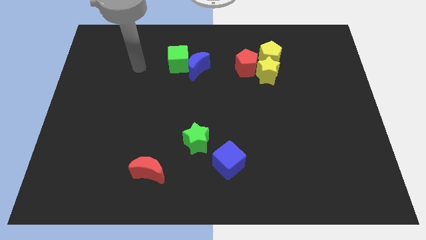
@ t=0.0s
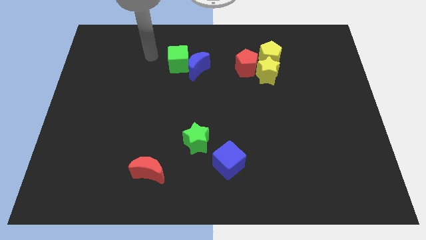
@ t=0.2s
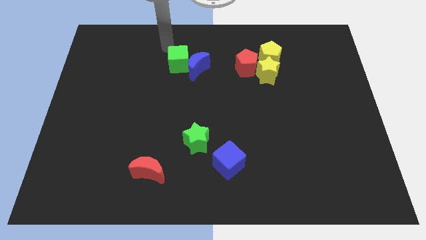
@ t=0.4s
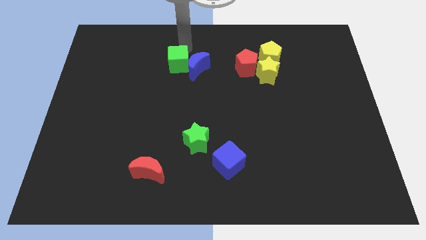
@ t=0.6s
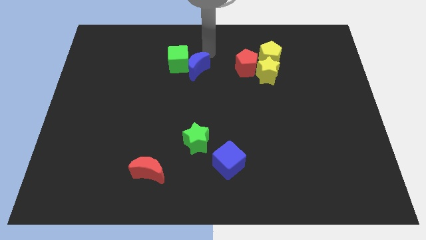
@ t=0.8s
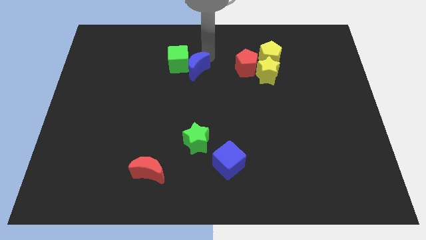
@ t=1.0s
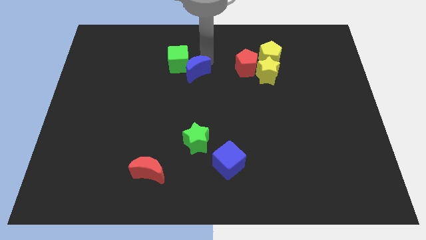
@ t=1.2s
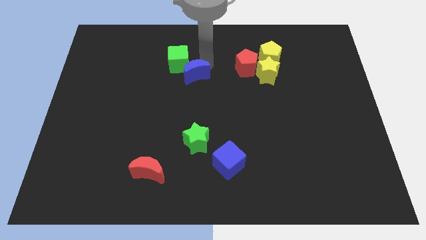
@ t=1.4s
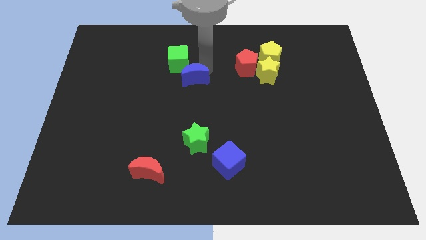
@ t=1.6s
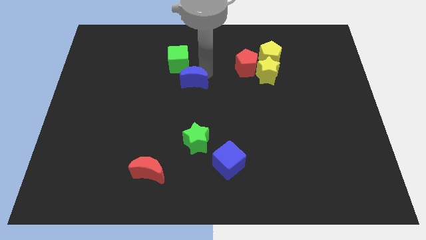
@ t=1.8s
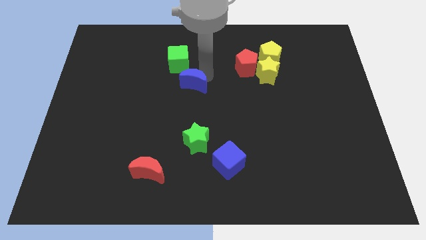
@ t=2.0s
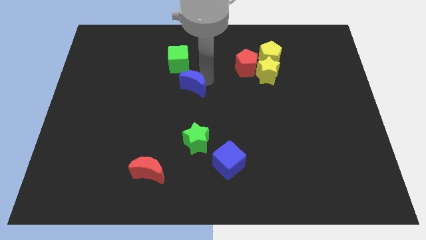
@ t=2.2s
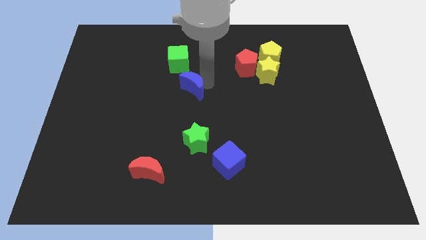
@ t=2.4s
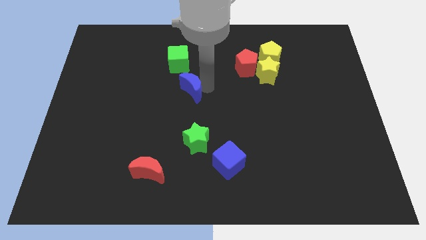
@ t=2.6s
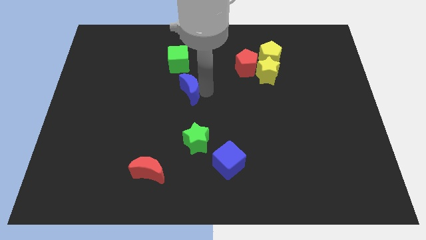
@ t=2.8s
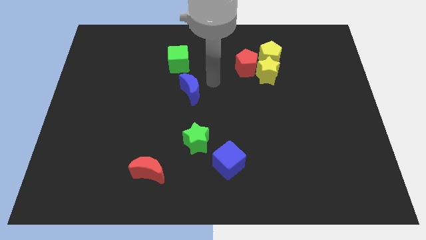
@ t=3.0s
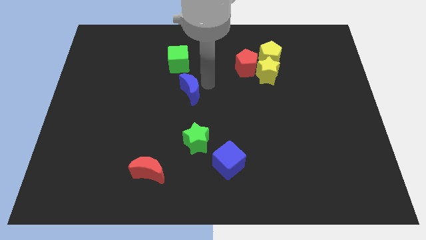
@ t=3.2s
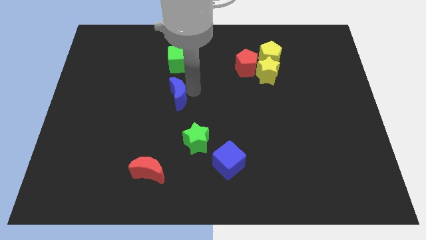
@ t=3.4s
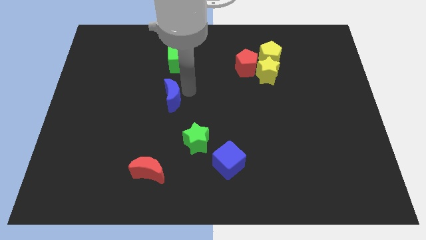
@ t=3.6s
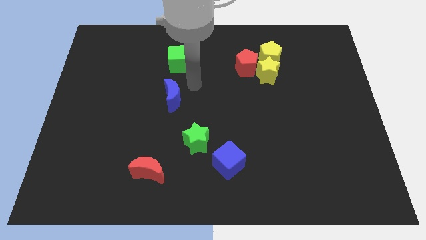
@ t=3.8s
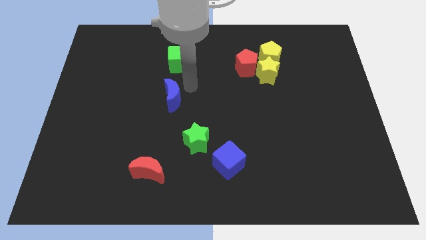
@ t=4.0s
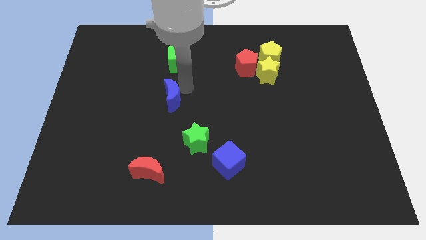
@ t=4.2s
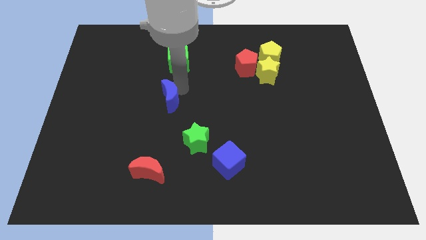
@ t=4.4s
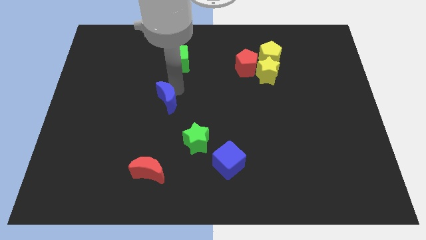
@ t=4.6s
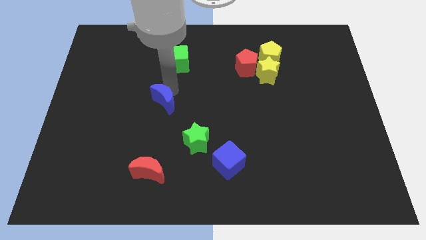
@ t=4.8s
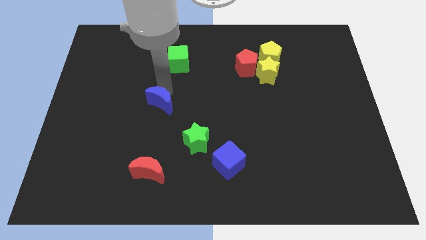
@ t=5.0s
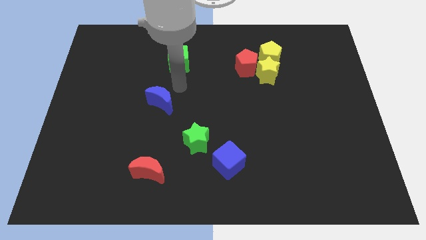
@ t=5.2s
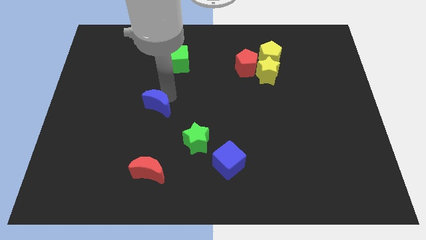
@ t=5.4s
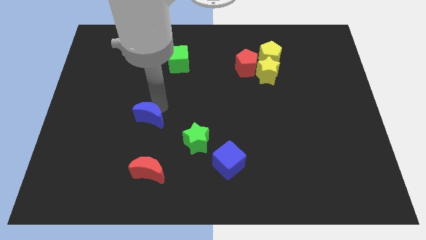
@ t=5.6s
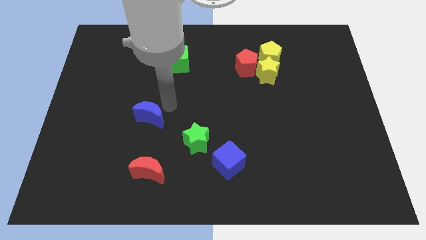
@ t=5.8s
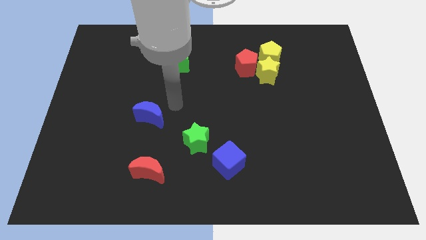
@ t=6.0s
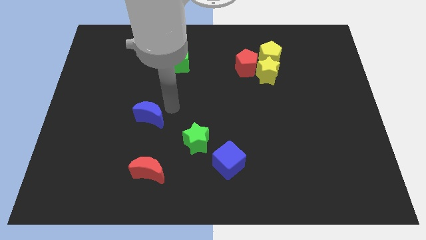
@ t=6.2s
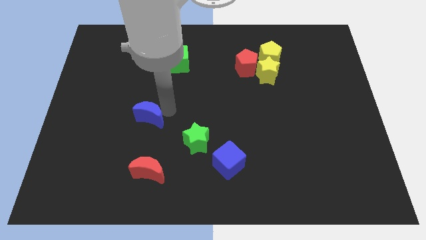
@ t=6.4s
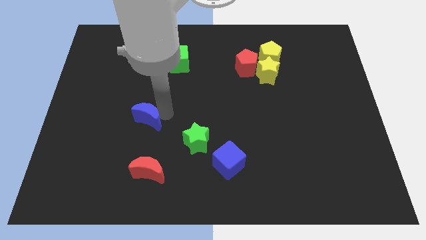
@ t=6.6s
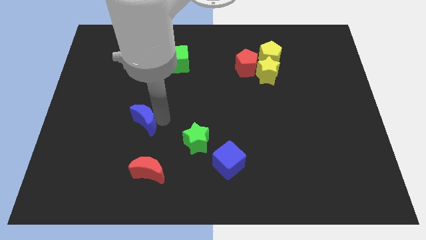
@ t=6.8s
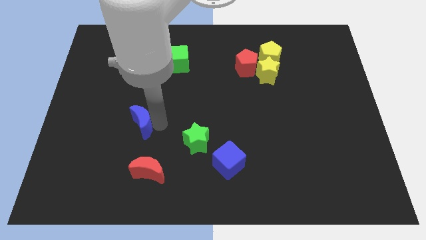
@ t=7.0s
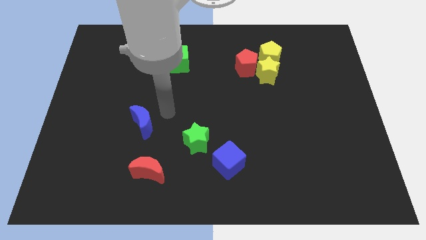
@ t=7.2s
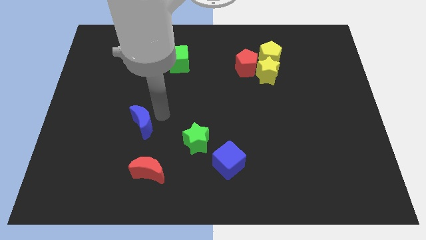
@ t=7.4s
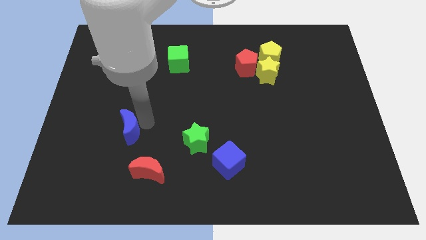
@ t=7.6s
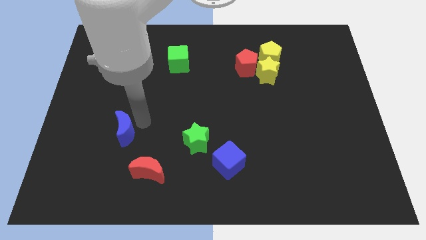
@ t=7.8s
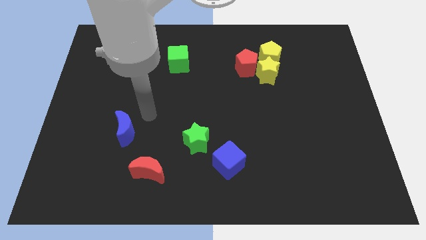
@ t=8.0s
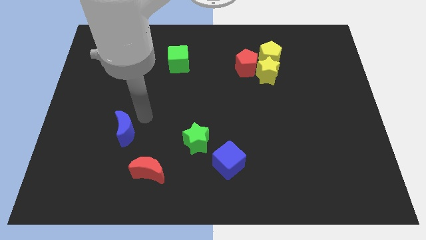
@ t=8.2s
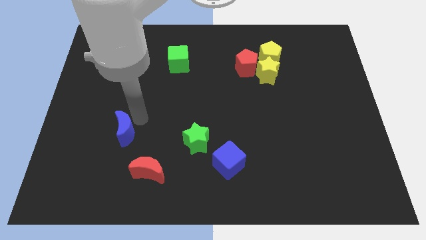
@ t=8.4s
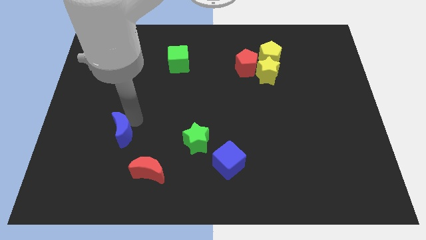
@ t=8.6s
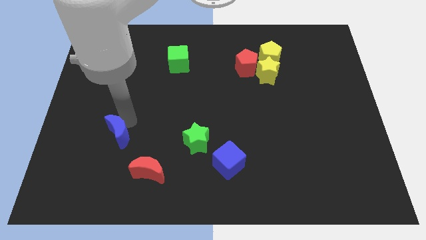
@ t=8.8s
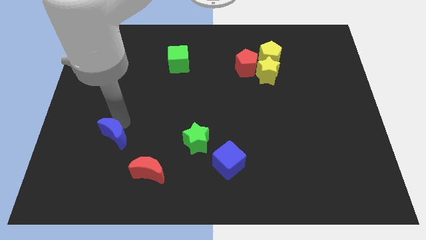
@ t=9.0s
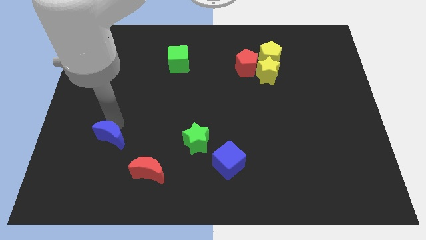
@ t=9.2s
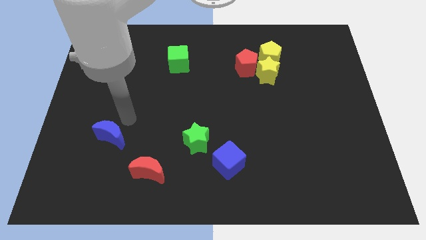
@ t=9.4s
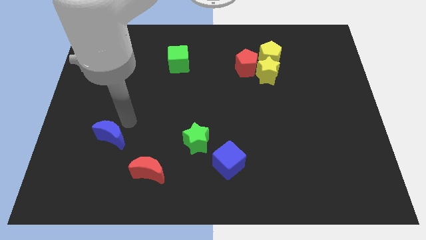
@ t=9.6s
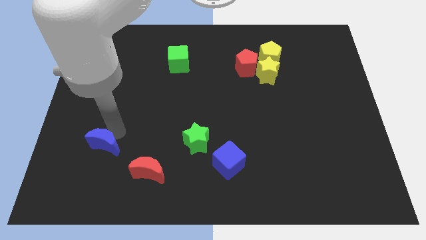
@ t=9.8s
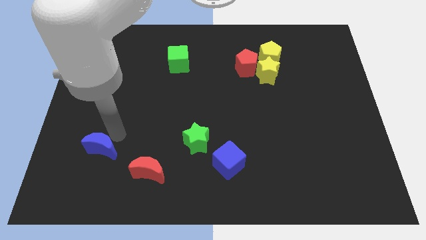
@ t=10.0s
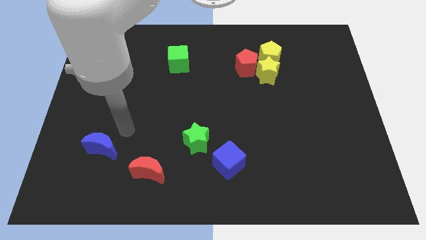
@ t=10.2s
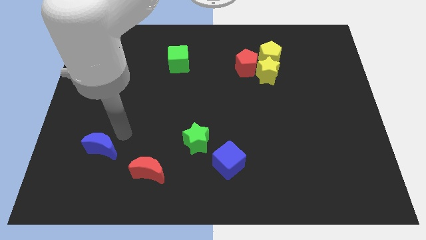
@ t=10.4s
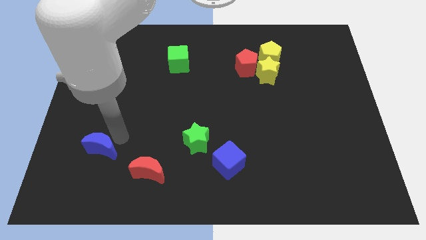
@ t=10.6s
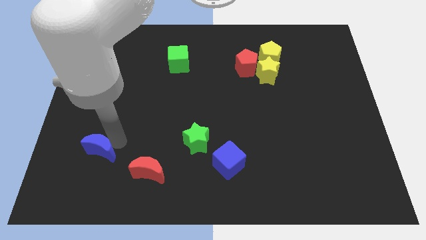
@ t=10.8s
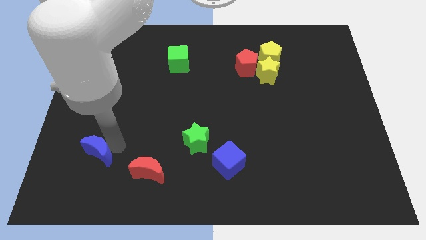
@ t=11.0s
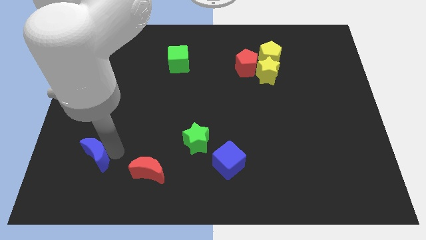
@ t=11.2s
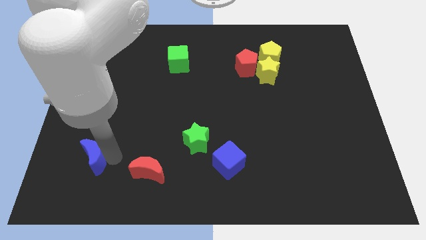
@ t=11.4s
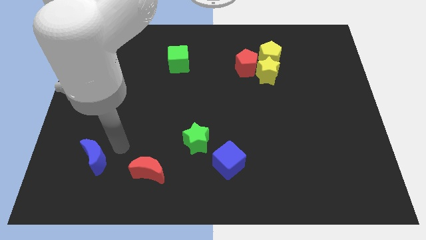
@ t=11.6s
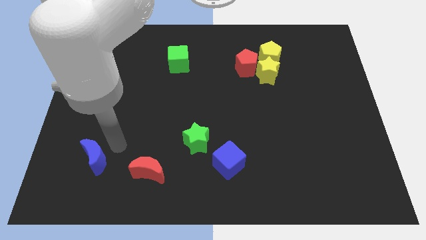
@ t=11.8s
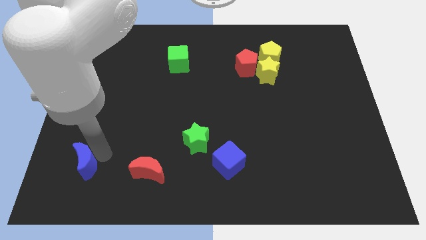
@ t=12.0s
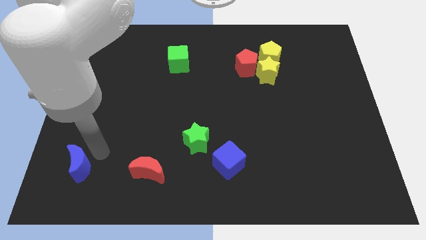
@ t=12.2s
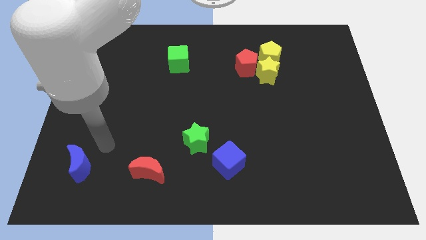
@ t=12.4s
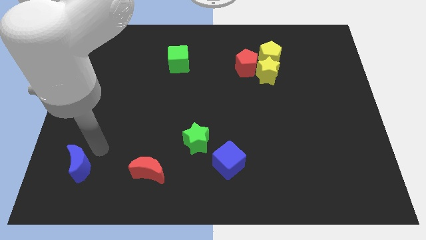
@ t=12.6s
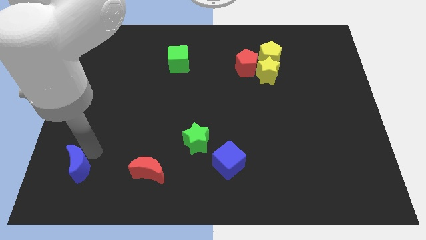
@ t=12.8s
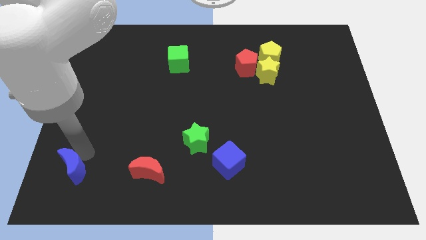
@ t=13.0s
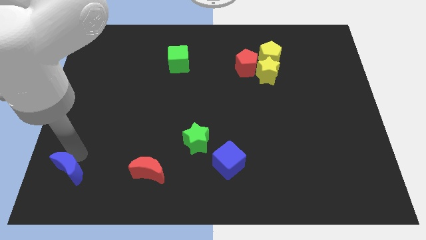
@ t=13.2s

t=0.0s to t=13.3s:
put the blue moon to the bottom left of the board
